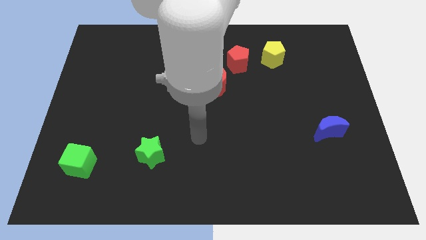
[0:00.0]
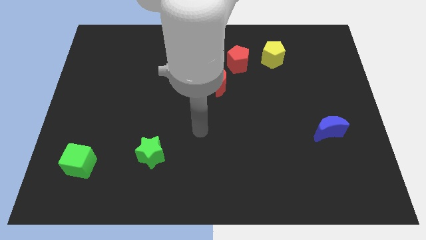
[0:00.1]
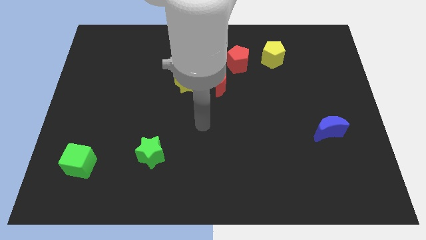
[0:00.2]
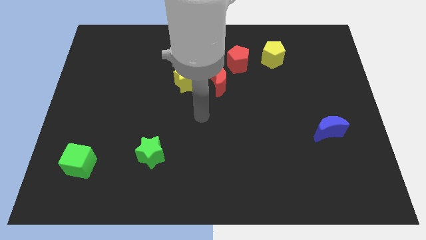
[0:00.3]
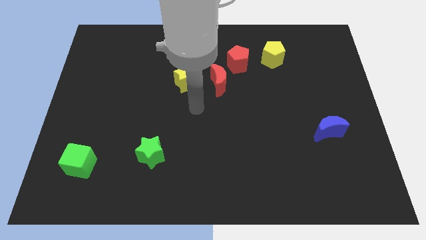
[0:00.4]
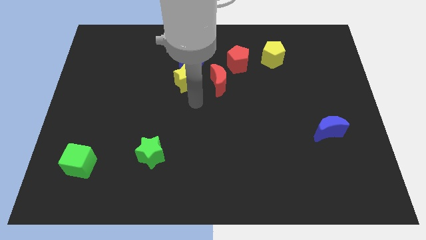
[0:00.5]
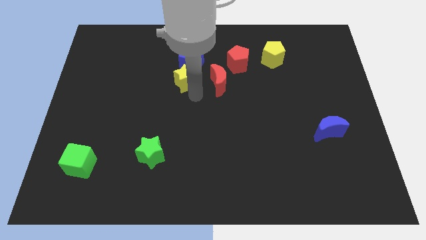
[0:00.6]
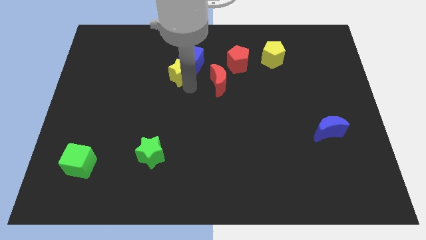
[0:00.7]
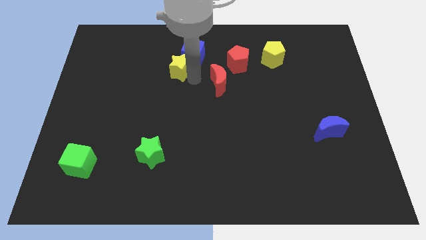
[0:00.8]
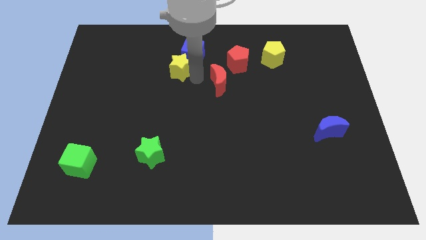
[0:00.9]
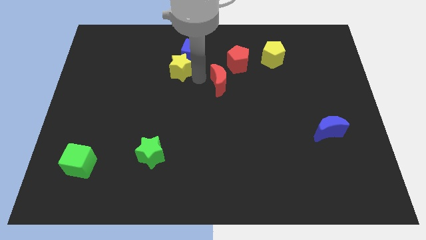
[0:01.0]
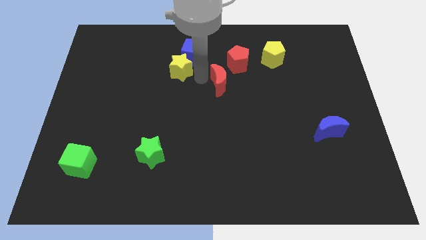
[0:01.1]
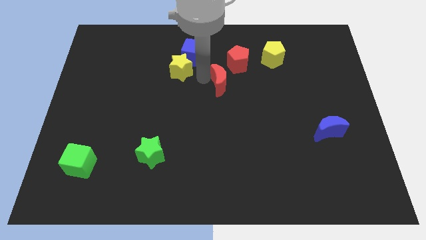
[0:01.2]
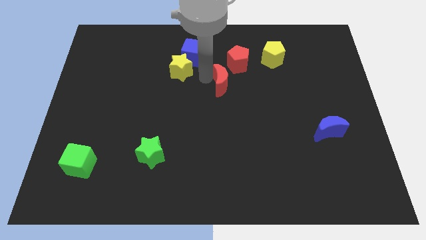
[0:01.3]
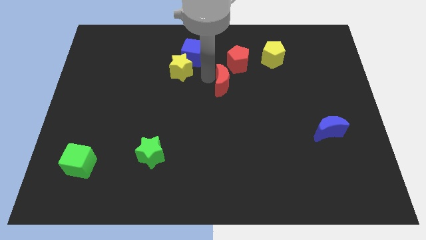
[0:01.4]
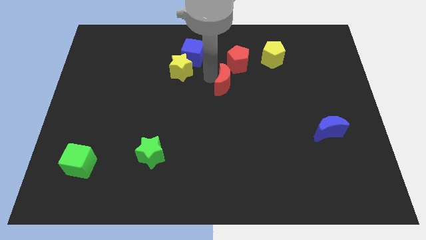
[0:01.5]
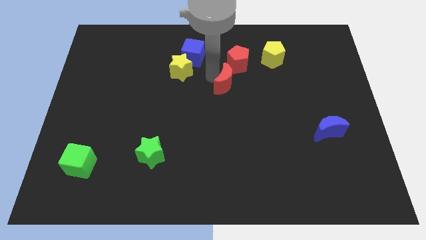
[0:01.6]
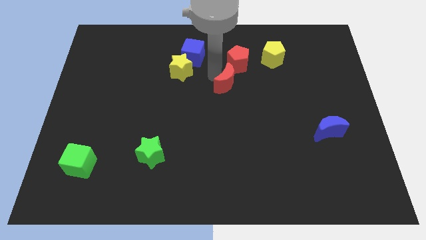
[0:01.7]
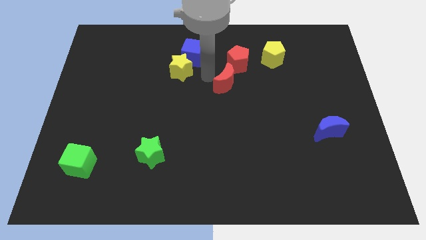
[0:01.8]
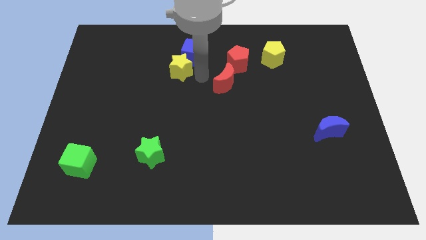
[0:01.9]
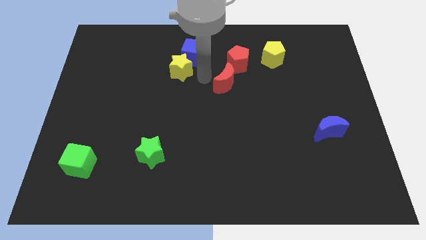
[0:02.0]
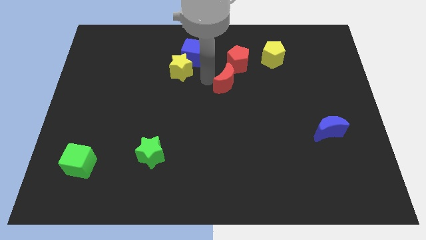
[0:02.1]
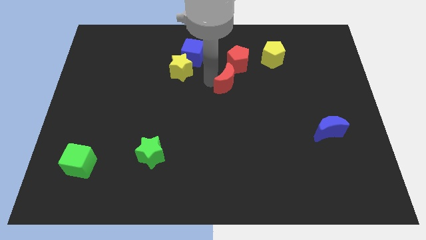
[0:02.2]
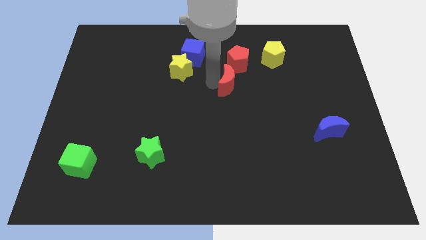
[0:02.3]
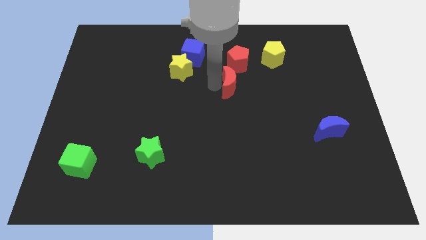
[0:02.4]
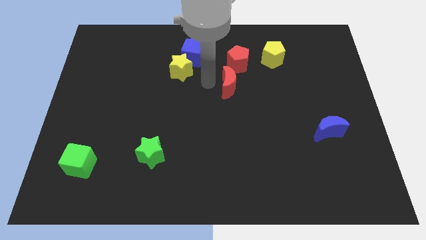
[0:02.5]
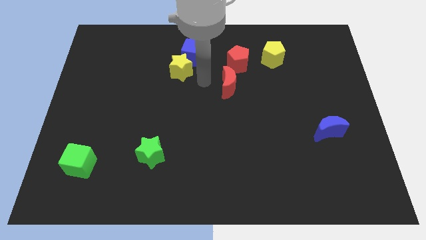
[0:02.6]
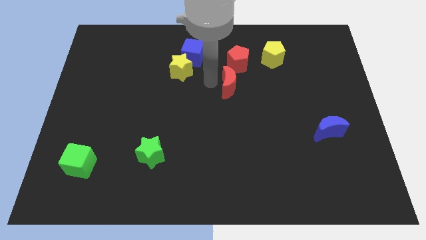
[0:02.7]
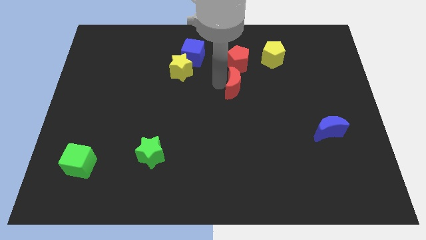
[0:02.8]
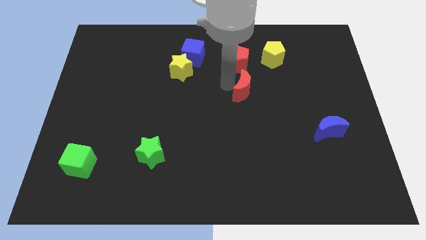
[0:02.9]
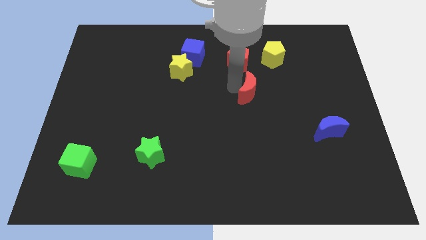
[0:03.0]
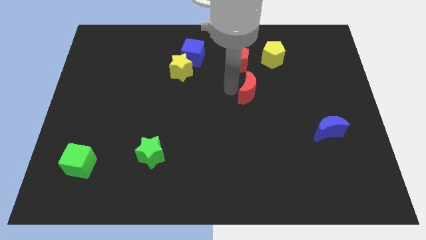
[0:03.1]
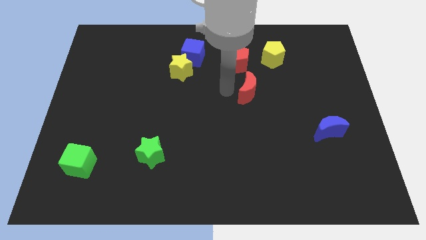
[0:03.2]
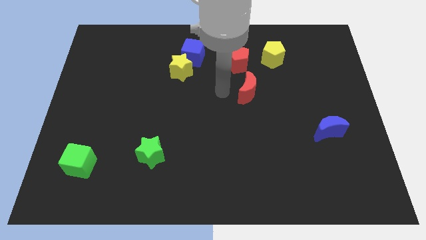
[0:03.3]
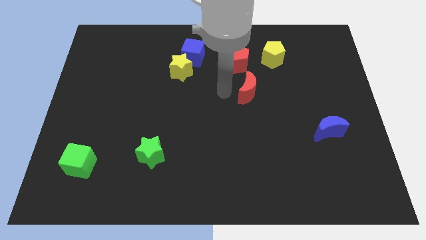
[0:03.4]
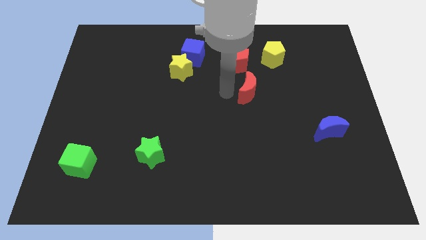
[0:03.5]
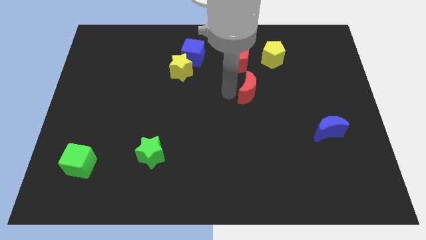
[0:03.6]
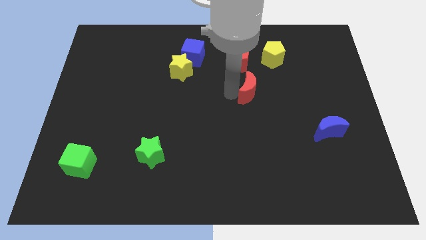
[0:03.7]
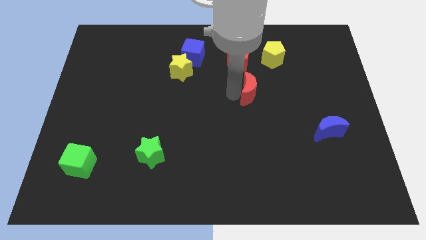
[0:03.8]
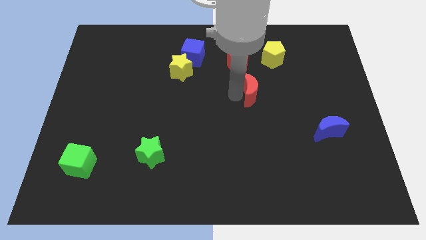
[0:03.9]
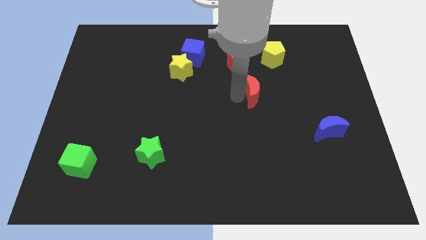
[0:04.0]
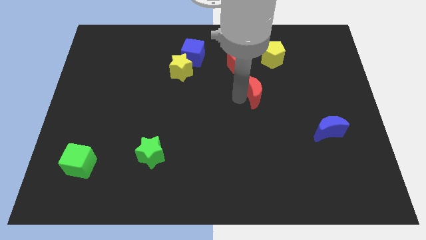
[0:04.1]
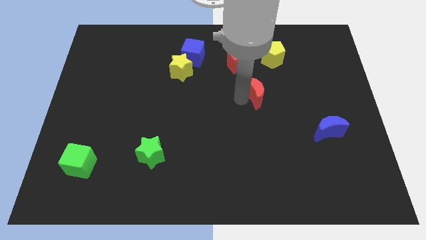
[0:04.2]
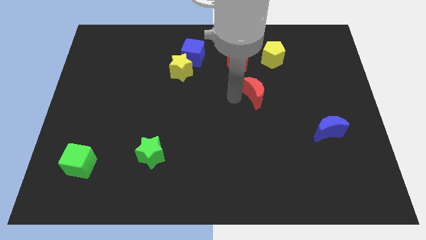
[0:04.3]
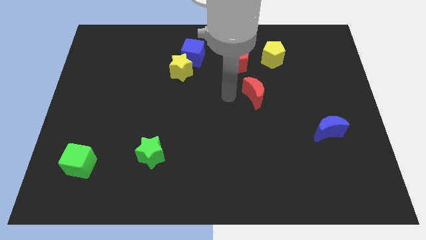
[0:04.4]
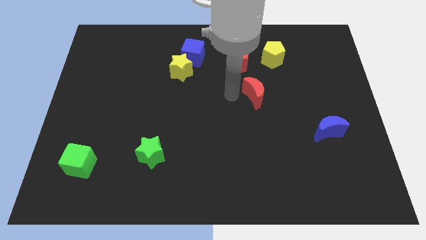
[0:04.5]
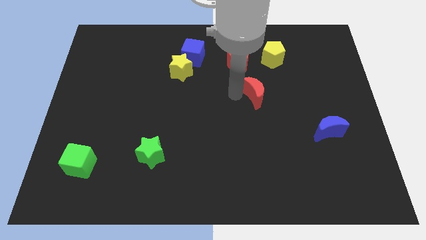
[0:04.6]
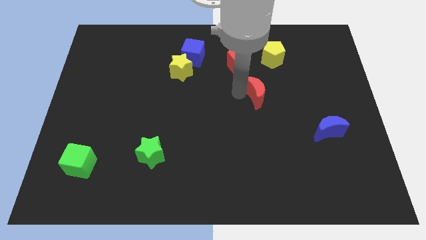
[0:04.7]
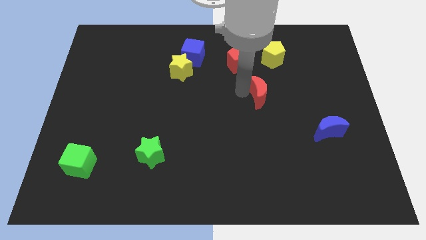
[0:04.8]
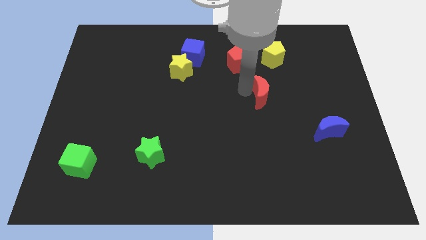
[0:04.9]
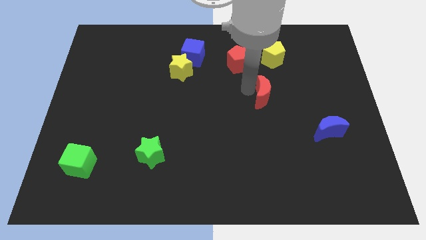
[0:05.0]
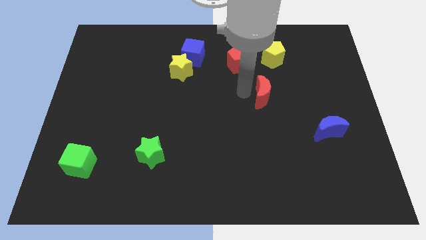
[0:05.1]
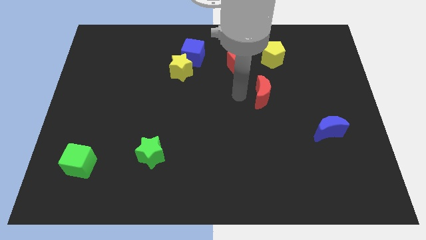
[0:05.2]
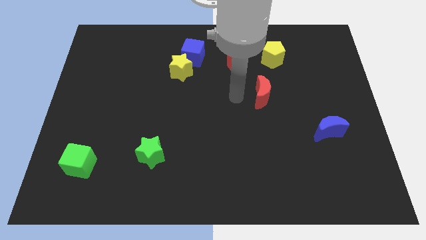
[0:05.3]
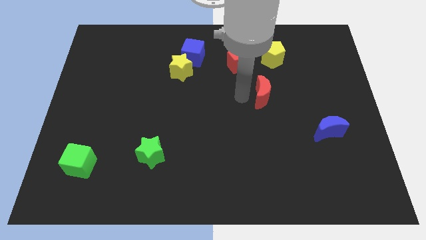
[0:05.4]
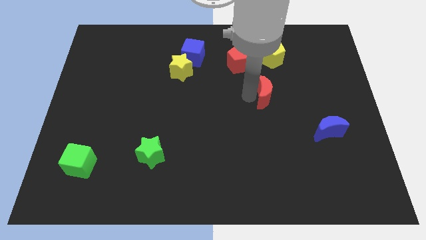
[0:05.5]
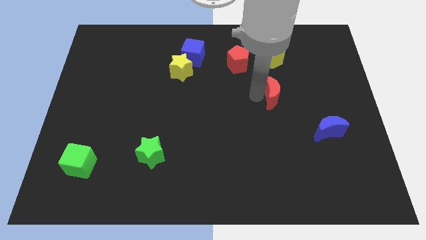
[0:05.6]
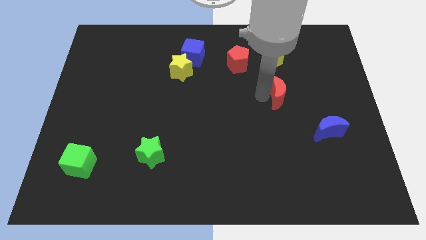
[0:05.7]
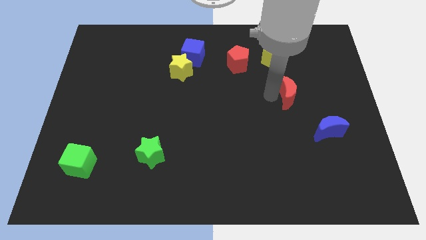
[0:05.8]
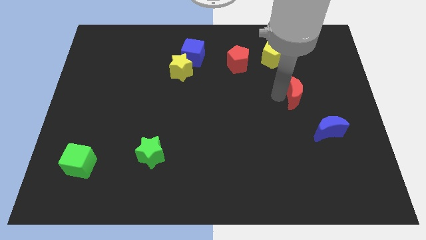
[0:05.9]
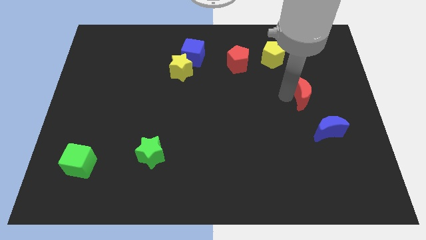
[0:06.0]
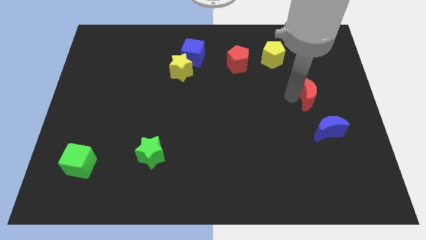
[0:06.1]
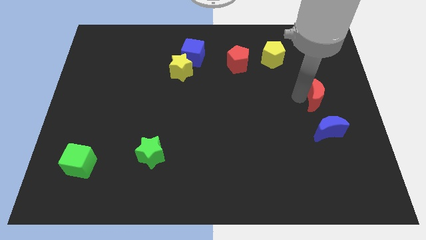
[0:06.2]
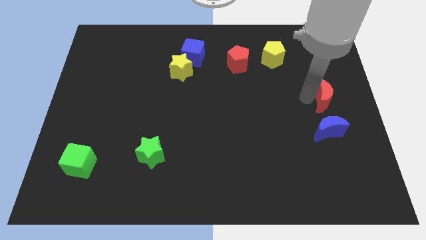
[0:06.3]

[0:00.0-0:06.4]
put the red moon to the right side of the board

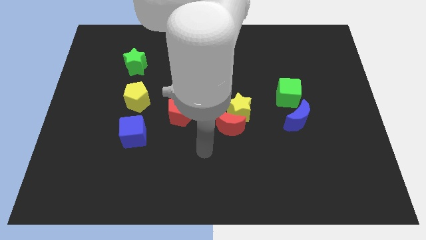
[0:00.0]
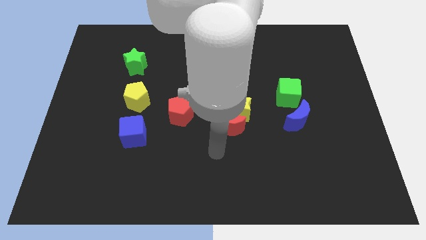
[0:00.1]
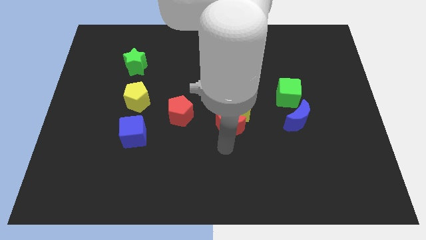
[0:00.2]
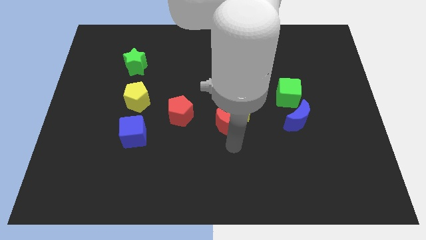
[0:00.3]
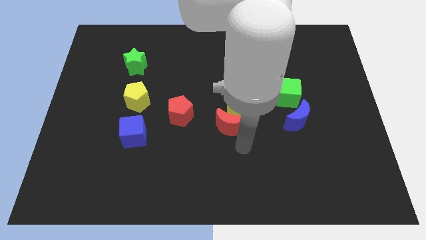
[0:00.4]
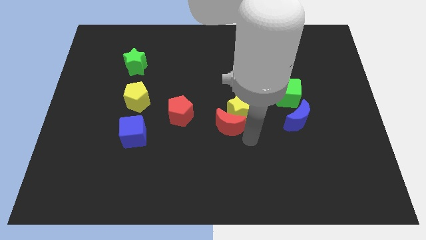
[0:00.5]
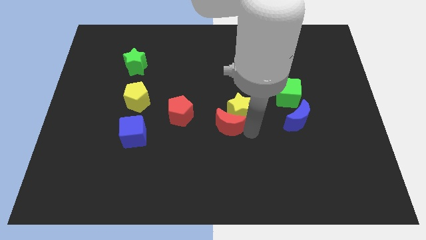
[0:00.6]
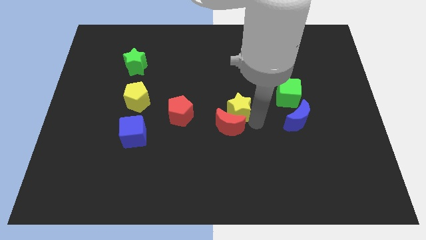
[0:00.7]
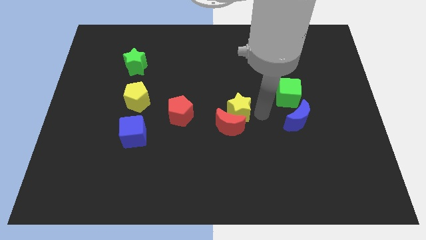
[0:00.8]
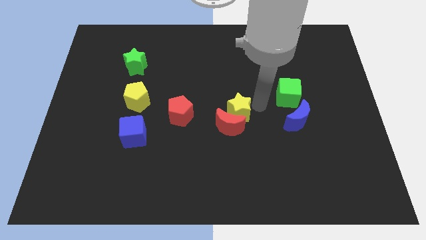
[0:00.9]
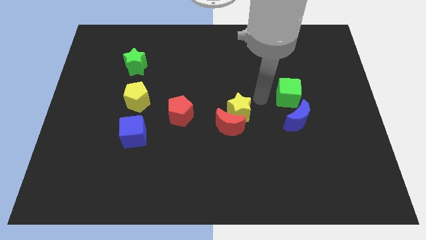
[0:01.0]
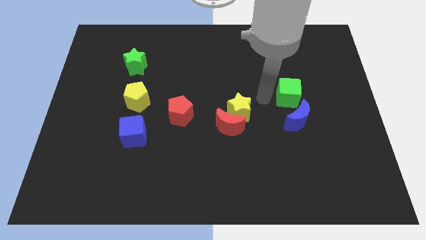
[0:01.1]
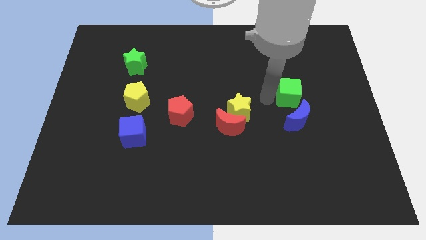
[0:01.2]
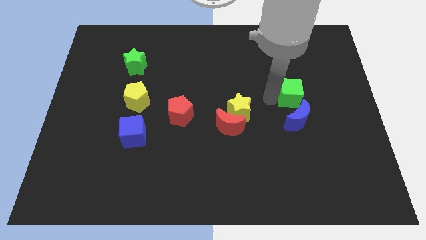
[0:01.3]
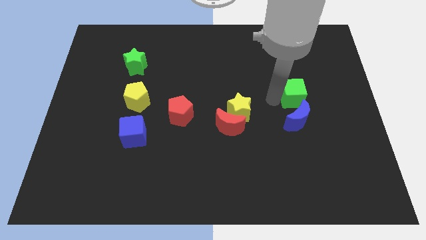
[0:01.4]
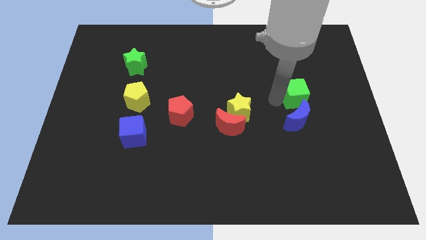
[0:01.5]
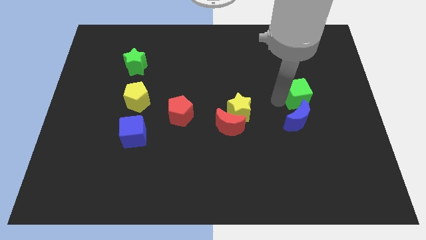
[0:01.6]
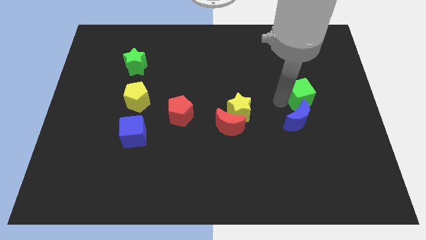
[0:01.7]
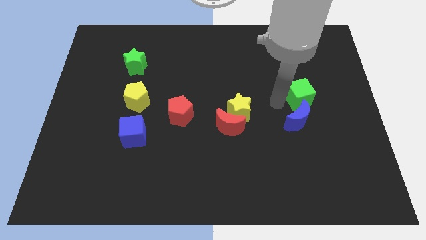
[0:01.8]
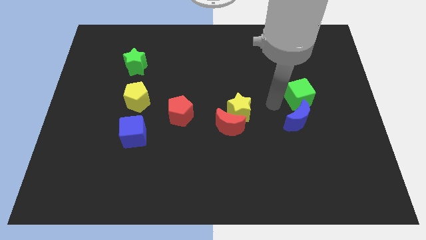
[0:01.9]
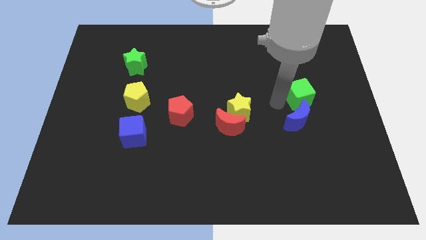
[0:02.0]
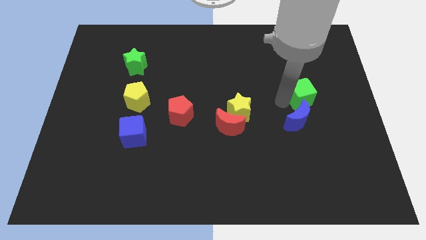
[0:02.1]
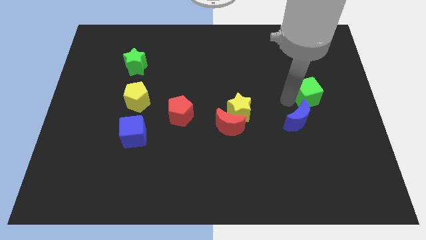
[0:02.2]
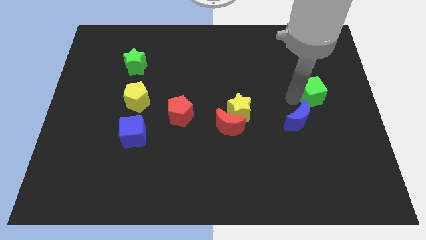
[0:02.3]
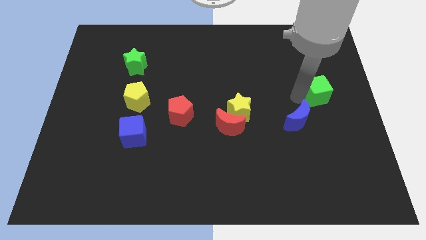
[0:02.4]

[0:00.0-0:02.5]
move the green cube to the right side of the board
